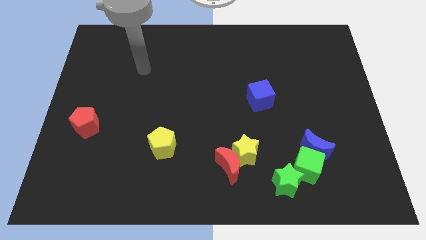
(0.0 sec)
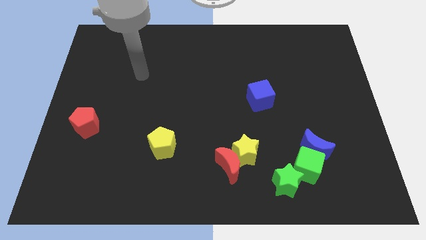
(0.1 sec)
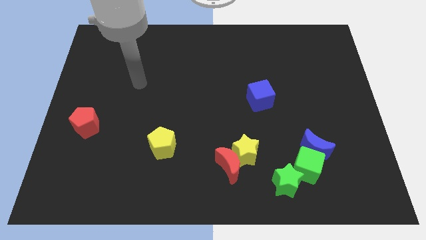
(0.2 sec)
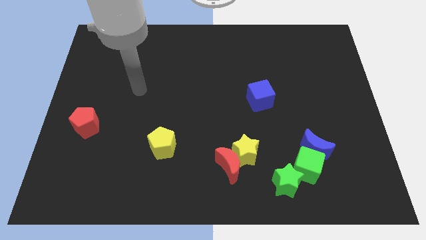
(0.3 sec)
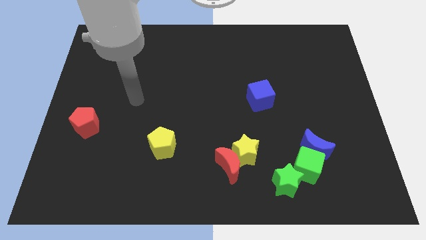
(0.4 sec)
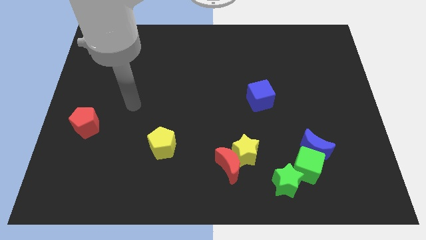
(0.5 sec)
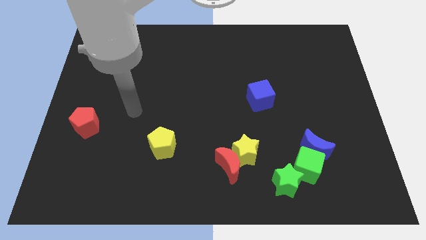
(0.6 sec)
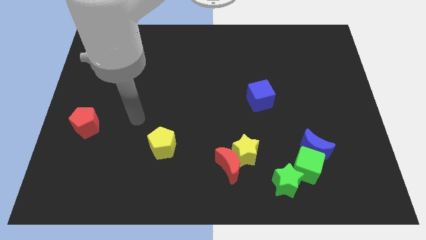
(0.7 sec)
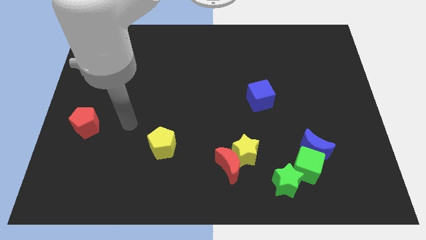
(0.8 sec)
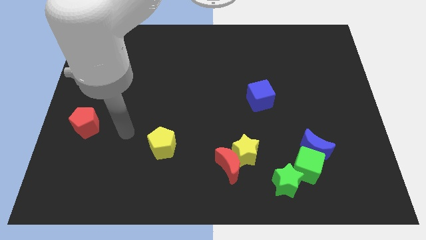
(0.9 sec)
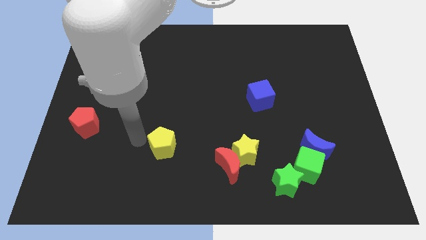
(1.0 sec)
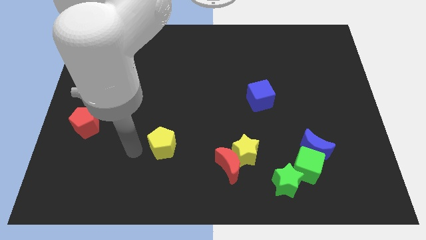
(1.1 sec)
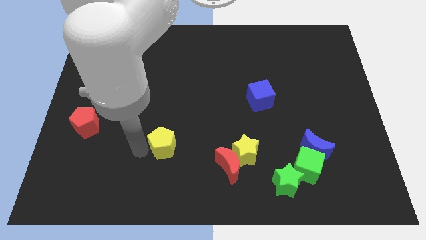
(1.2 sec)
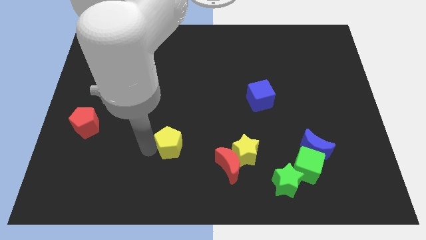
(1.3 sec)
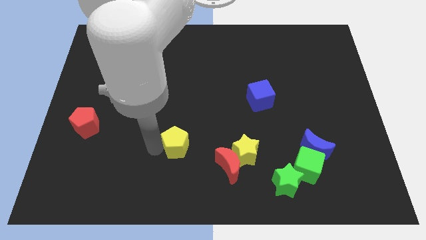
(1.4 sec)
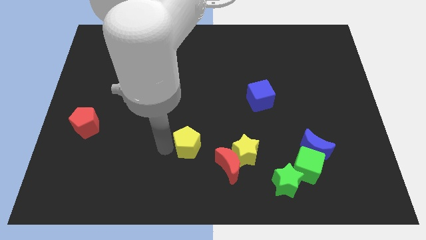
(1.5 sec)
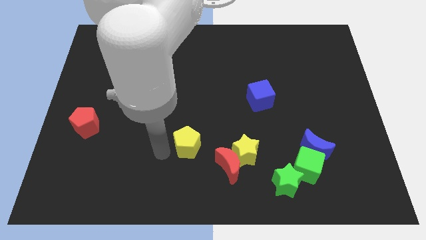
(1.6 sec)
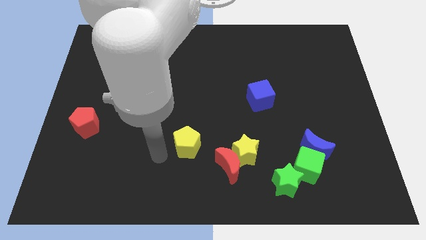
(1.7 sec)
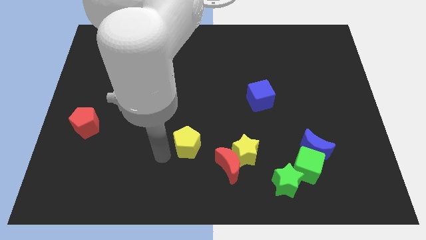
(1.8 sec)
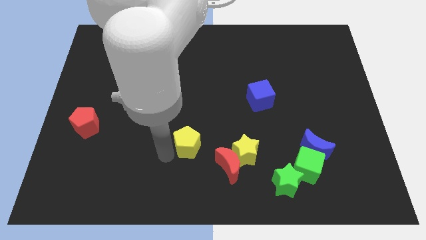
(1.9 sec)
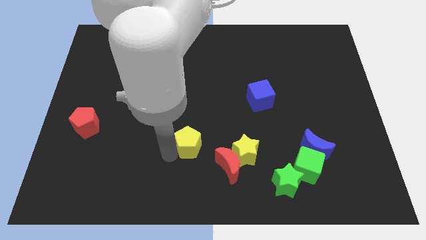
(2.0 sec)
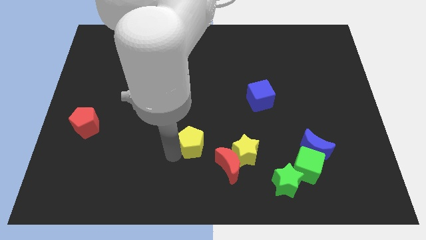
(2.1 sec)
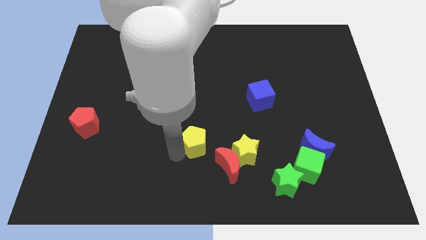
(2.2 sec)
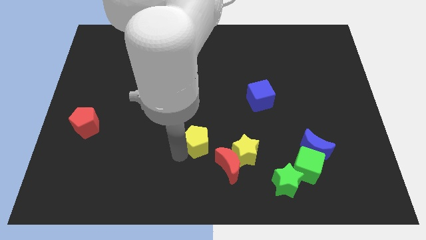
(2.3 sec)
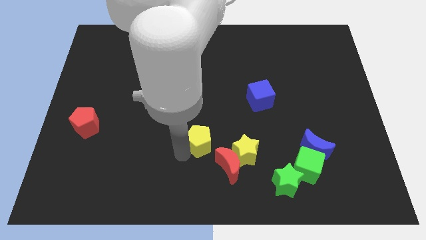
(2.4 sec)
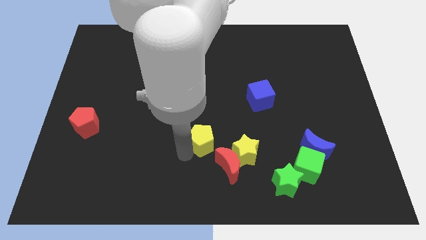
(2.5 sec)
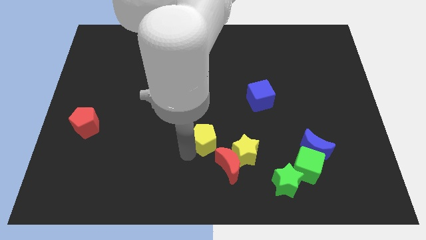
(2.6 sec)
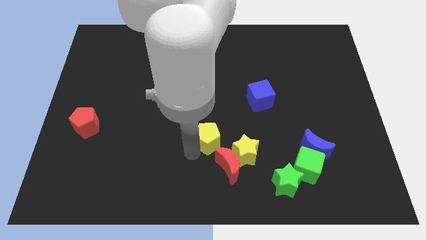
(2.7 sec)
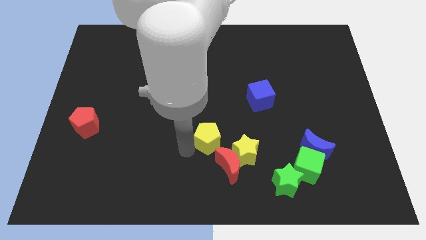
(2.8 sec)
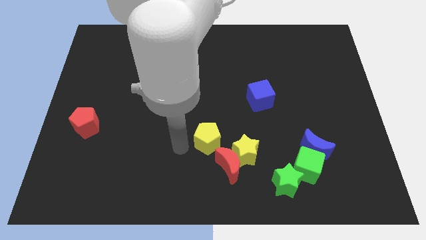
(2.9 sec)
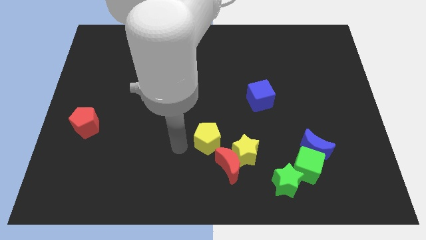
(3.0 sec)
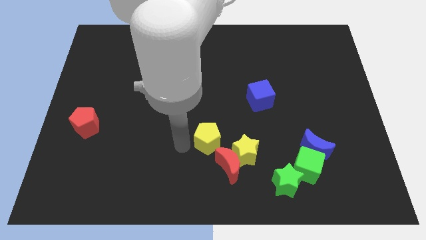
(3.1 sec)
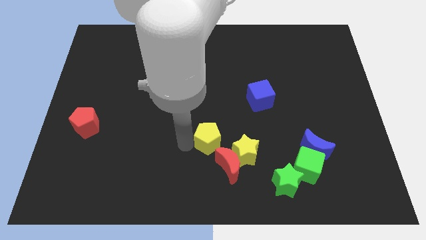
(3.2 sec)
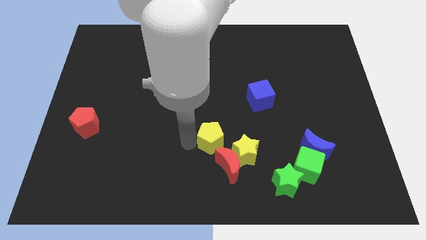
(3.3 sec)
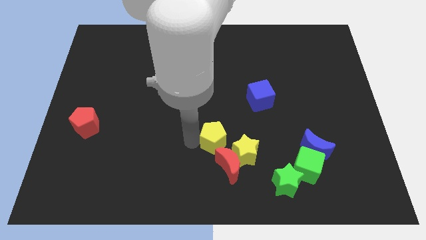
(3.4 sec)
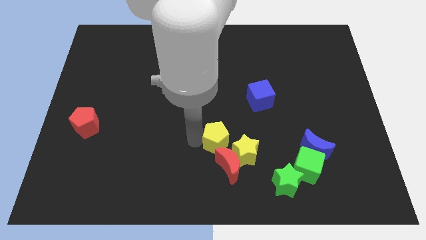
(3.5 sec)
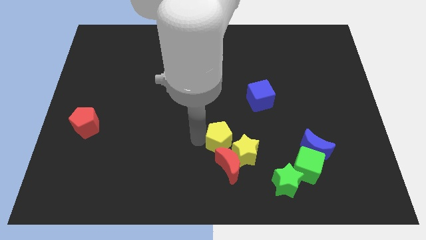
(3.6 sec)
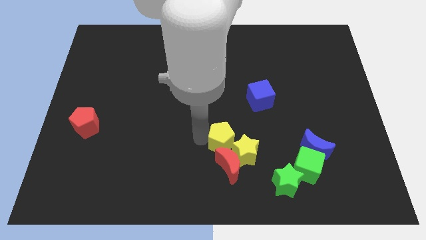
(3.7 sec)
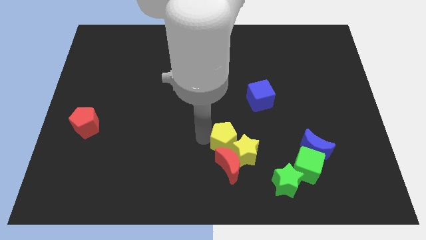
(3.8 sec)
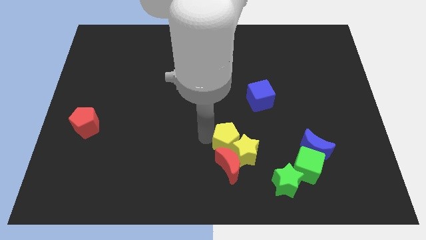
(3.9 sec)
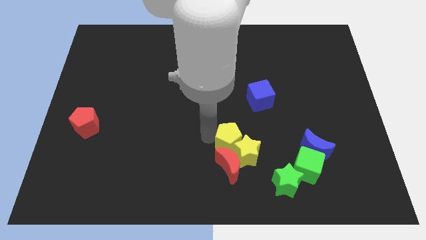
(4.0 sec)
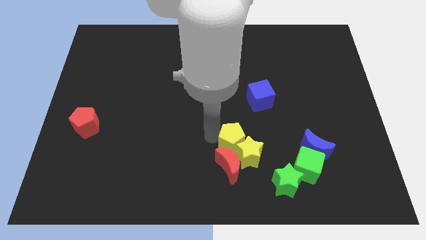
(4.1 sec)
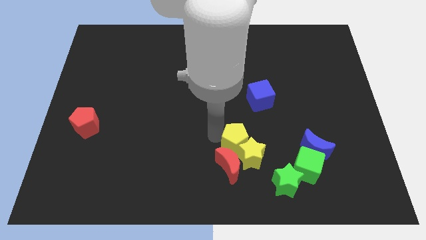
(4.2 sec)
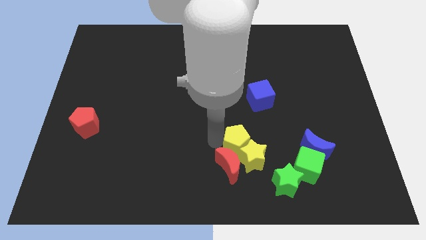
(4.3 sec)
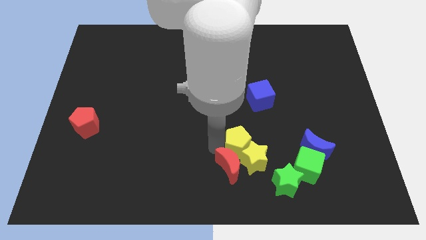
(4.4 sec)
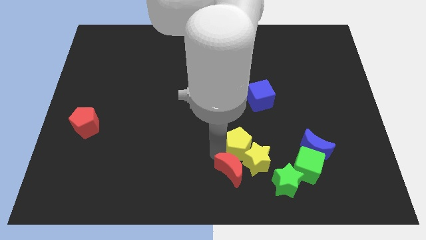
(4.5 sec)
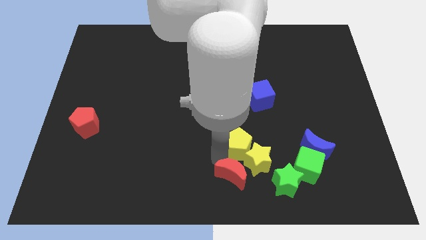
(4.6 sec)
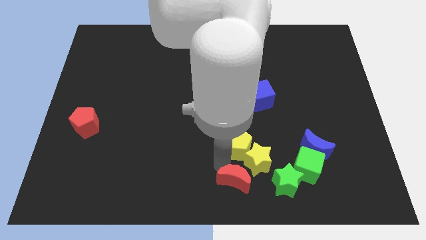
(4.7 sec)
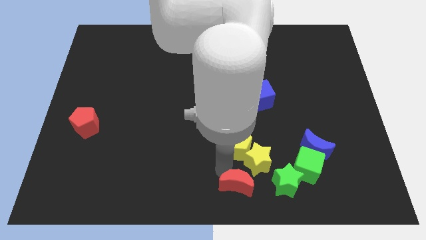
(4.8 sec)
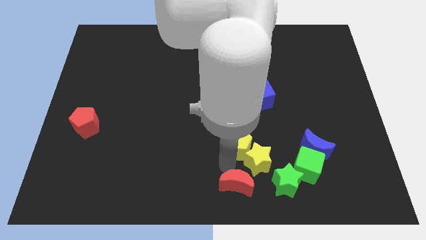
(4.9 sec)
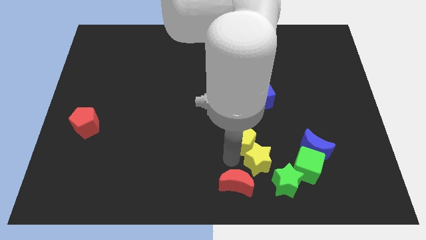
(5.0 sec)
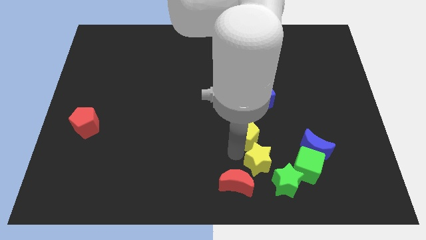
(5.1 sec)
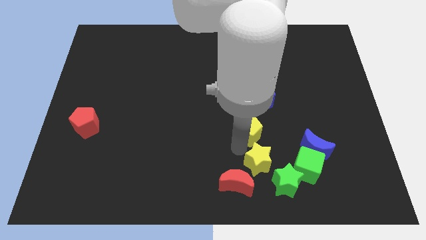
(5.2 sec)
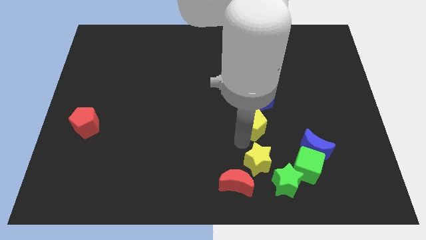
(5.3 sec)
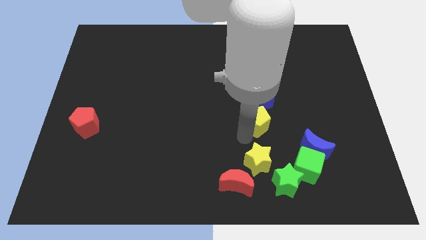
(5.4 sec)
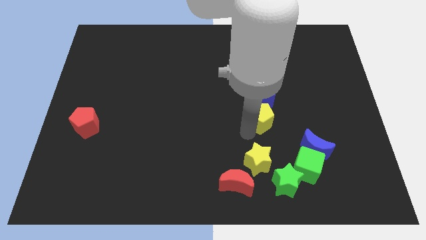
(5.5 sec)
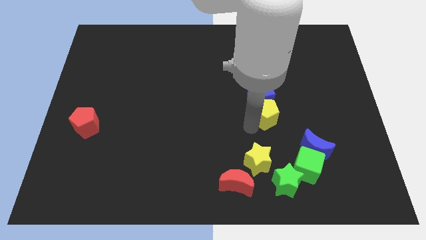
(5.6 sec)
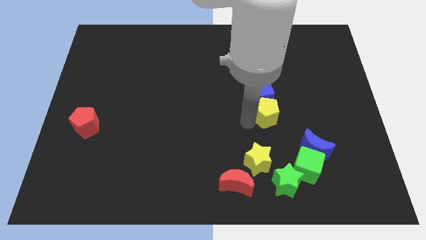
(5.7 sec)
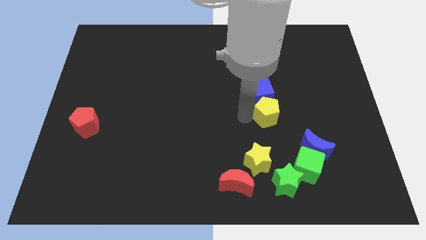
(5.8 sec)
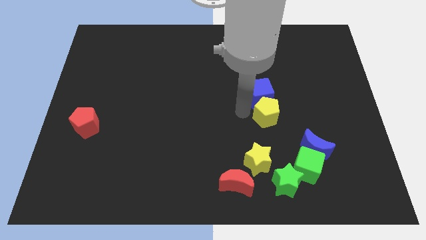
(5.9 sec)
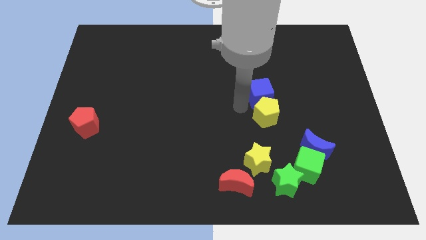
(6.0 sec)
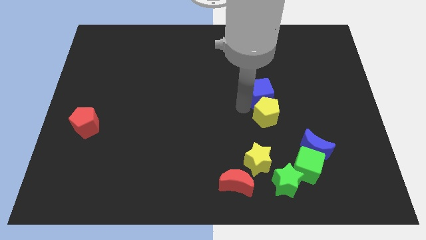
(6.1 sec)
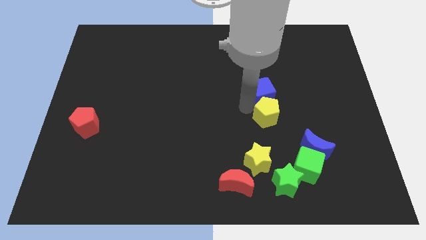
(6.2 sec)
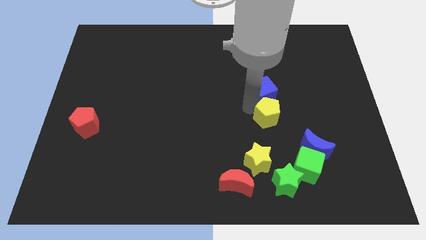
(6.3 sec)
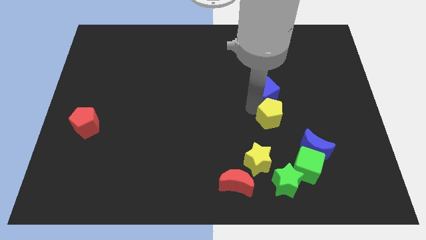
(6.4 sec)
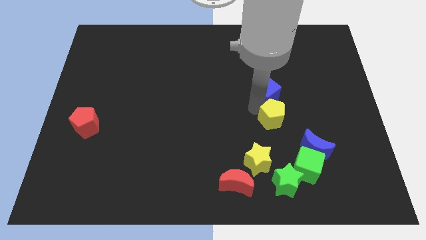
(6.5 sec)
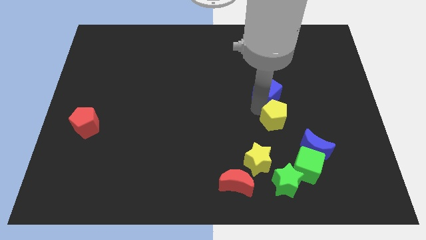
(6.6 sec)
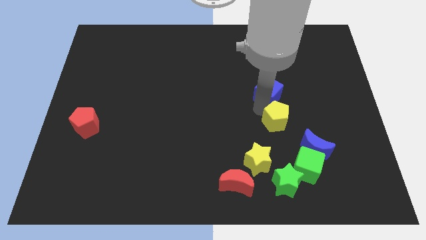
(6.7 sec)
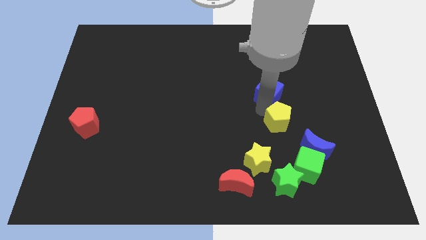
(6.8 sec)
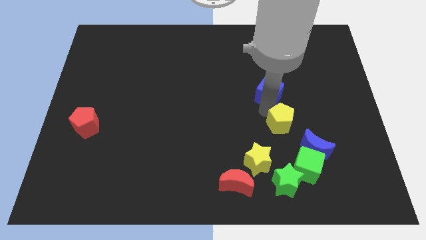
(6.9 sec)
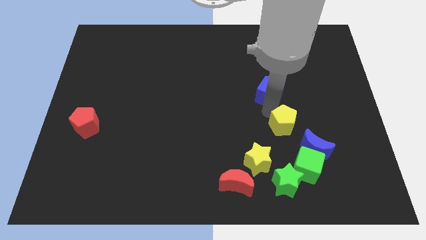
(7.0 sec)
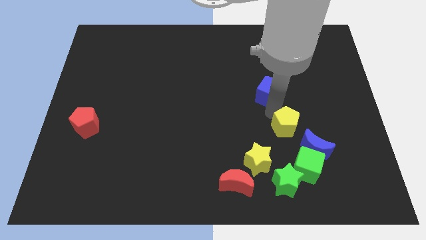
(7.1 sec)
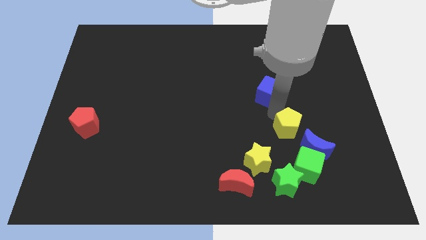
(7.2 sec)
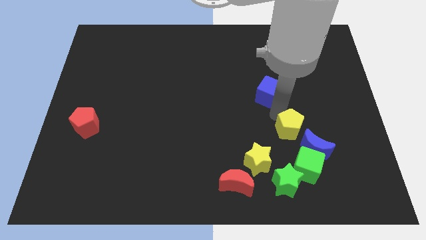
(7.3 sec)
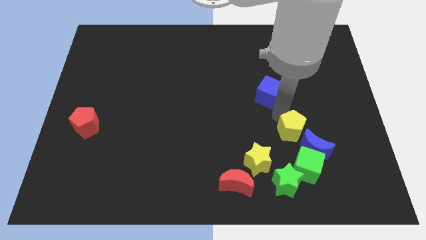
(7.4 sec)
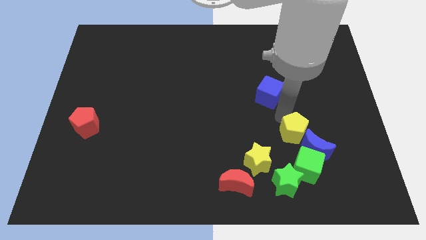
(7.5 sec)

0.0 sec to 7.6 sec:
slide the yellow pentagon towards the blue moon
